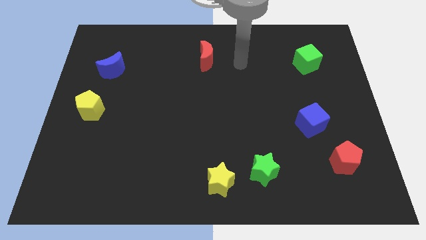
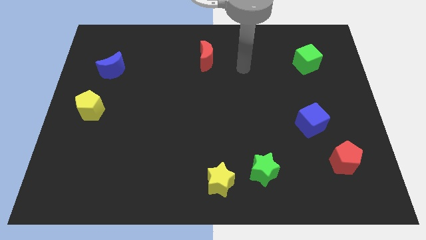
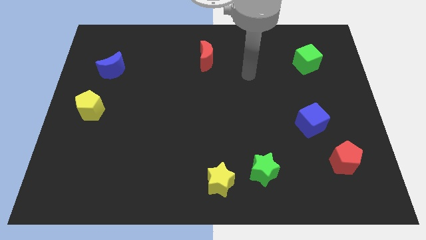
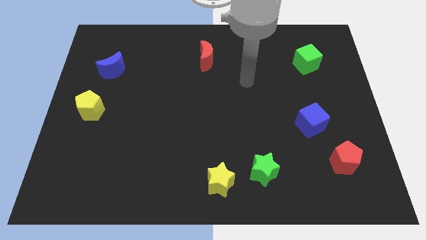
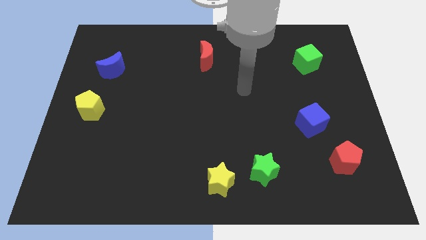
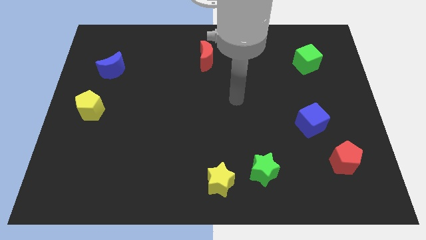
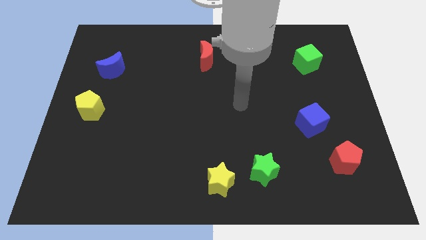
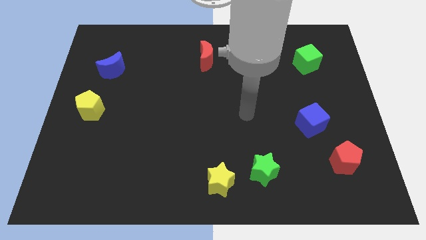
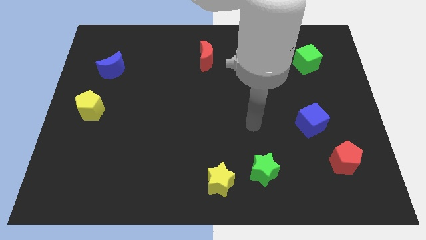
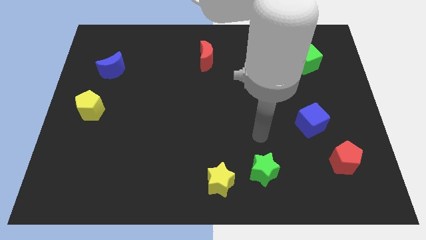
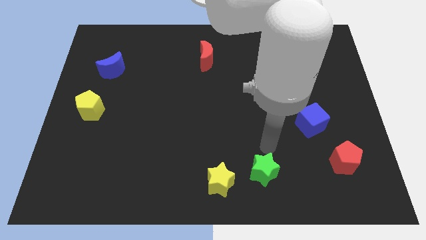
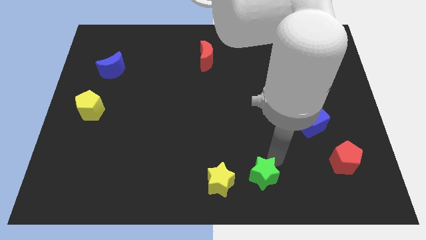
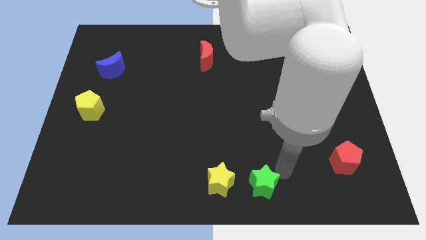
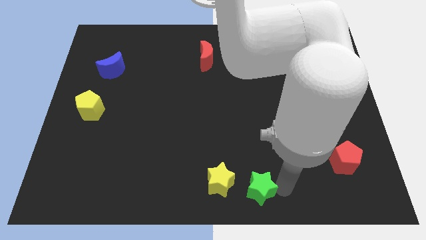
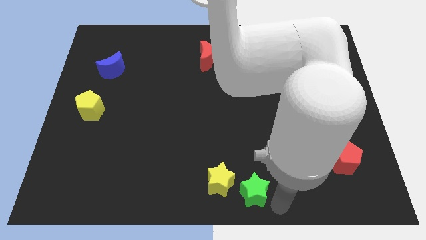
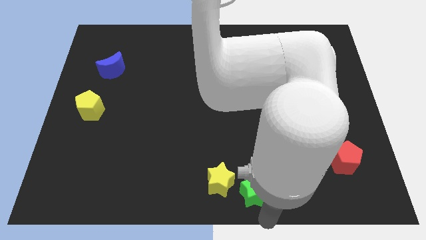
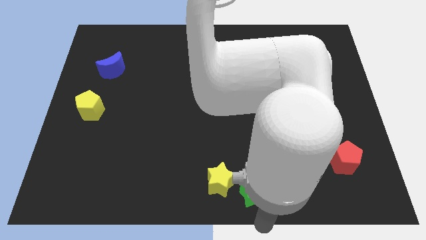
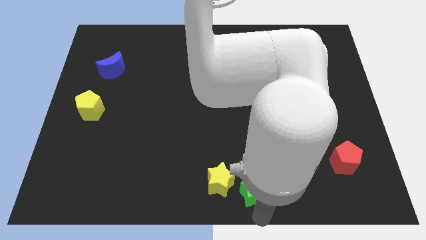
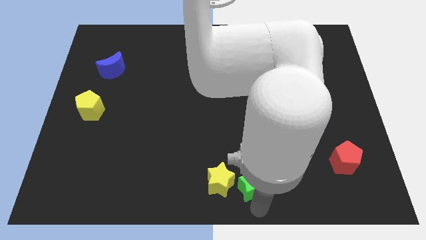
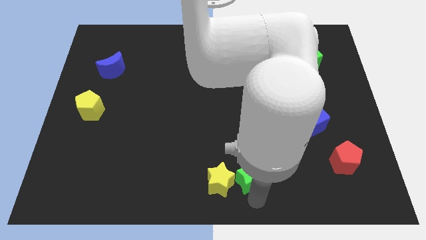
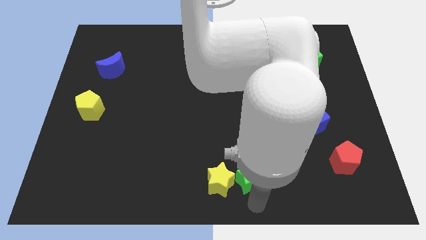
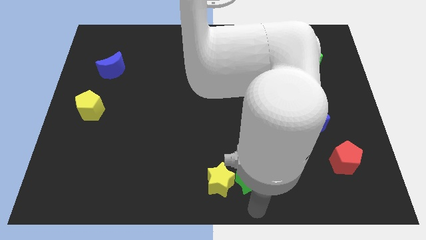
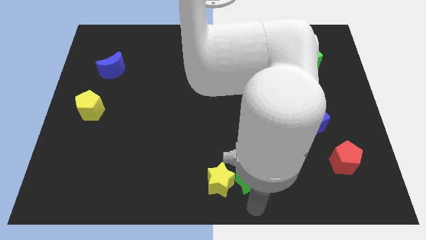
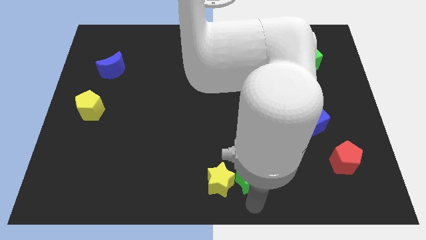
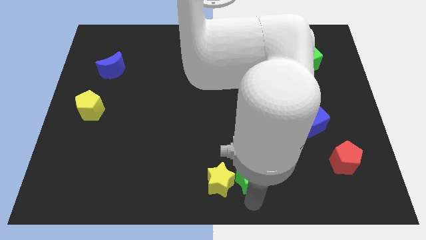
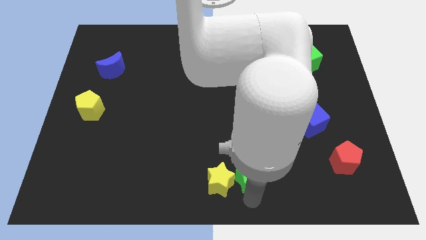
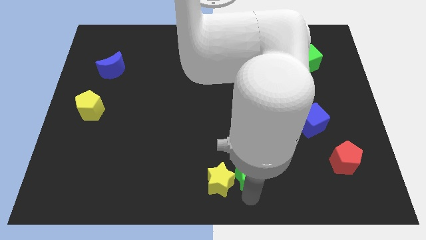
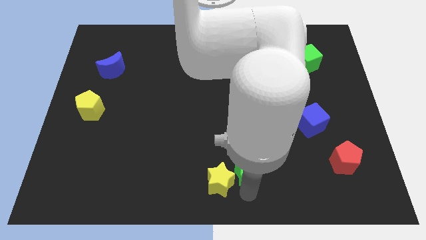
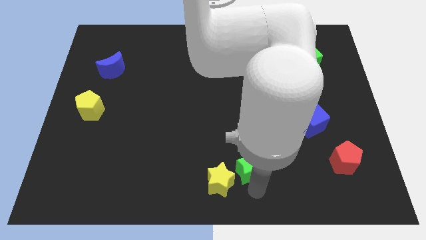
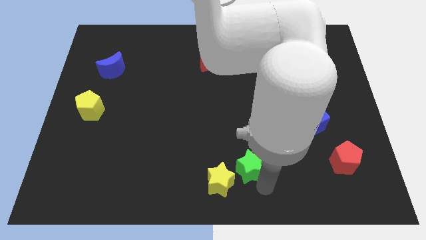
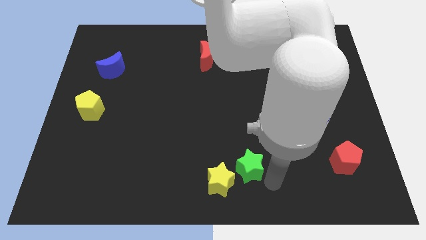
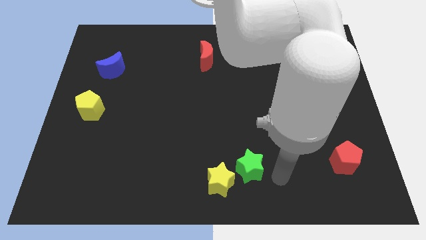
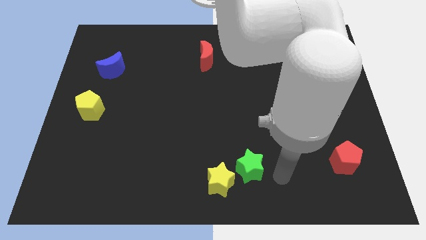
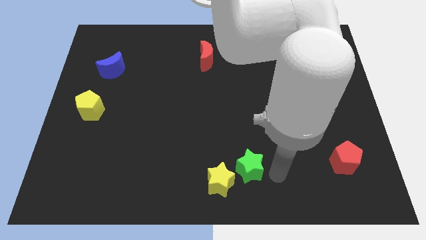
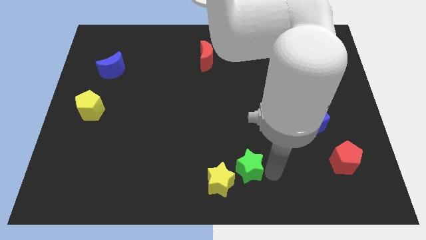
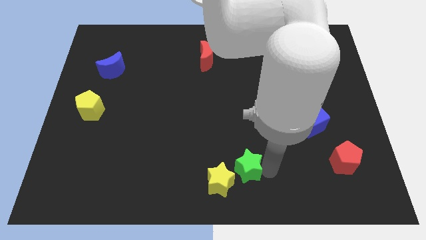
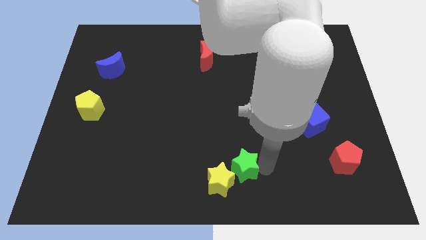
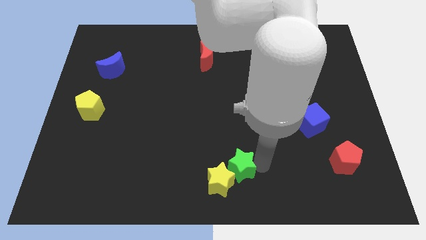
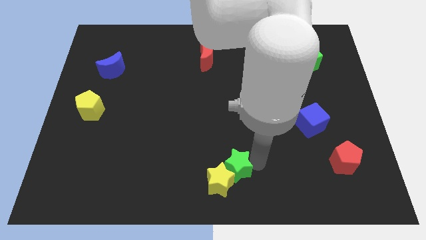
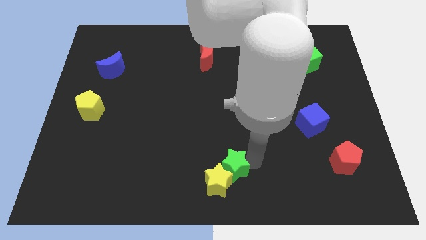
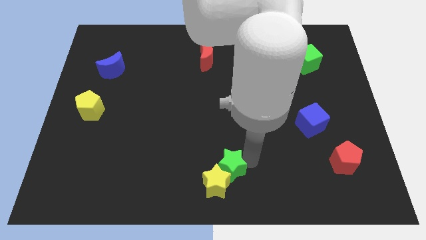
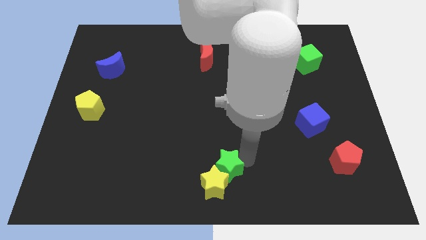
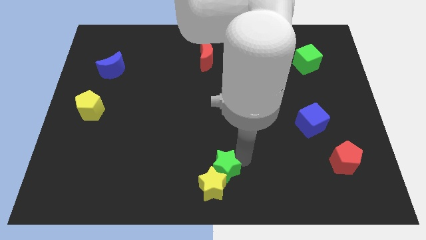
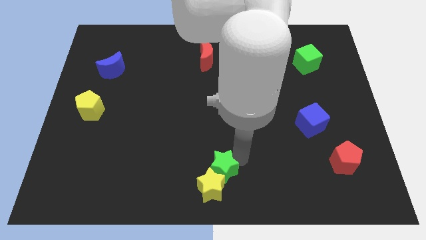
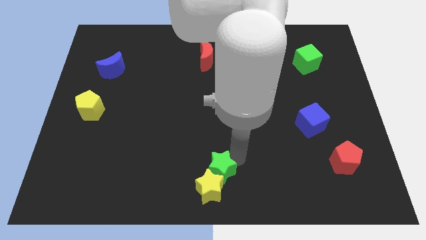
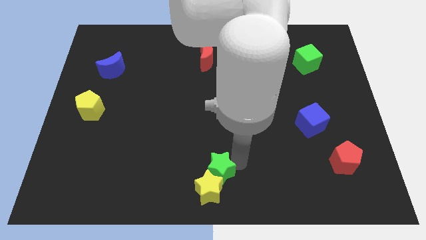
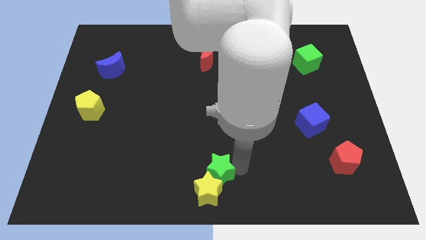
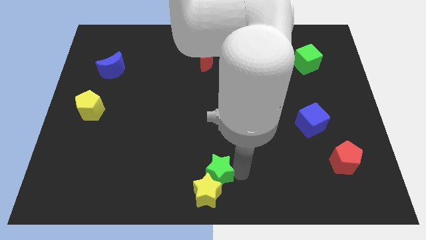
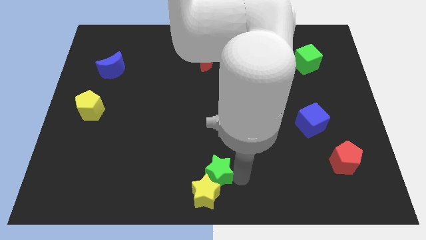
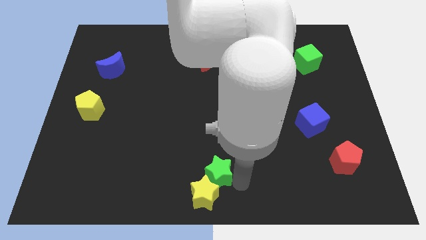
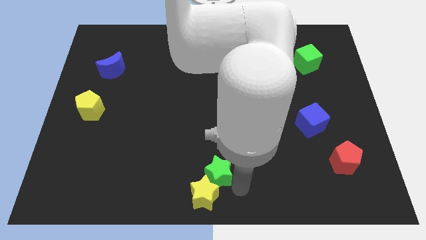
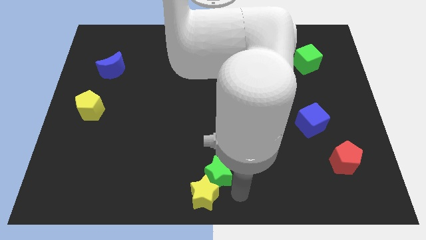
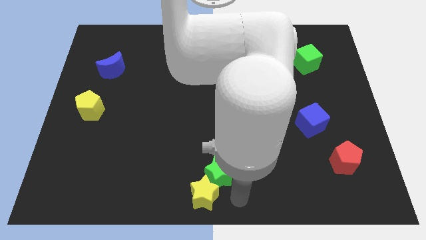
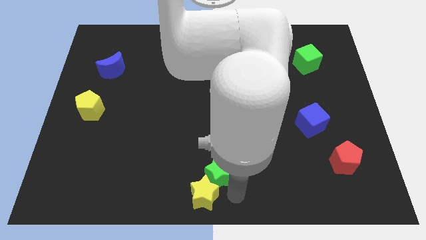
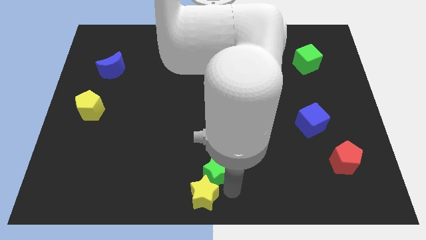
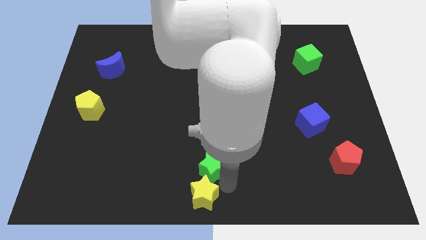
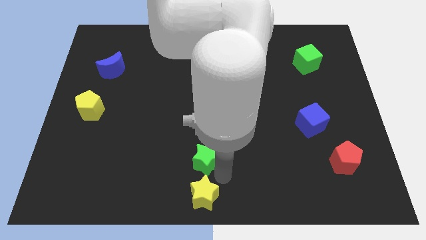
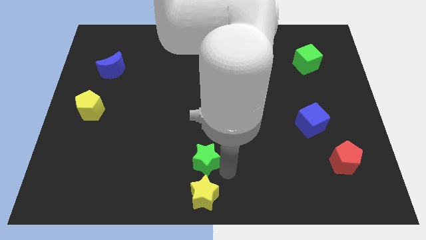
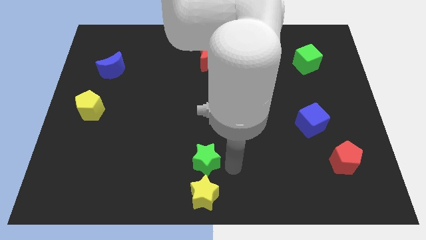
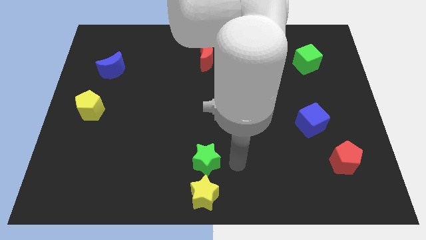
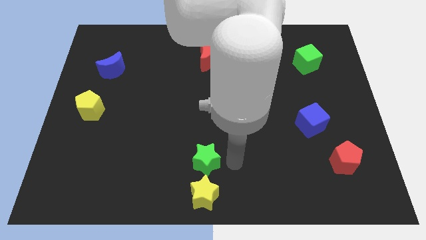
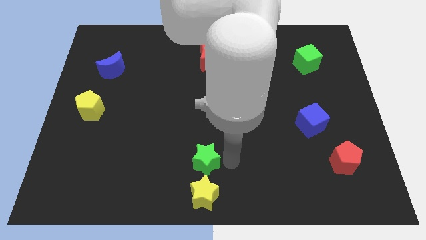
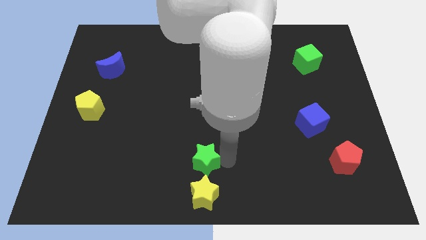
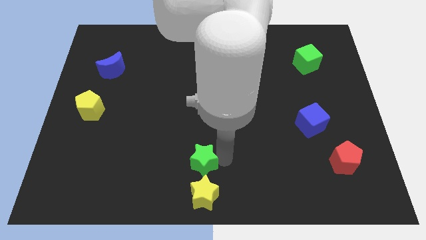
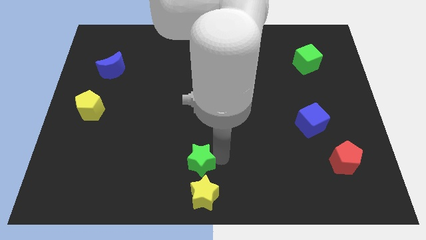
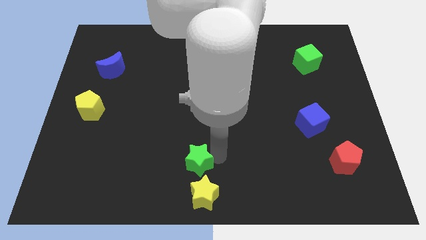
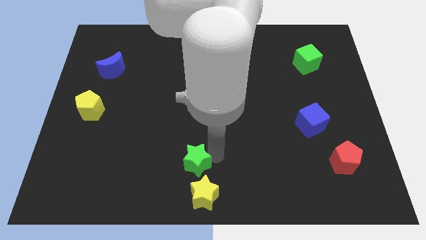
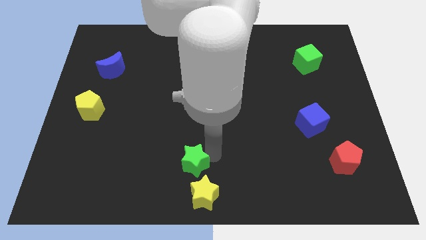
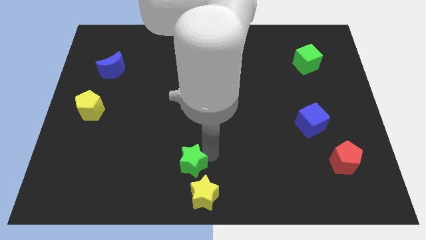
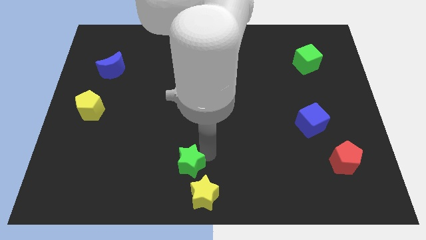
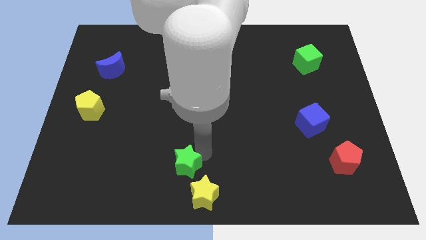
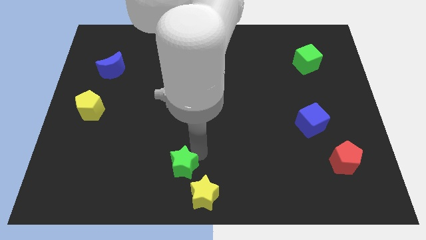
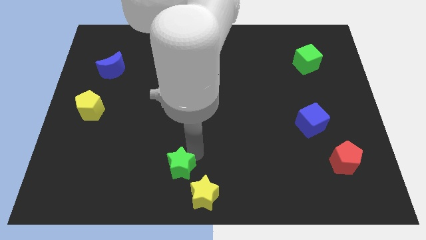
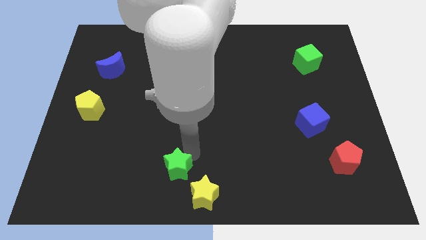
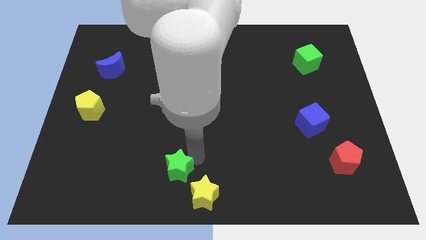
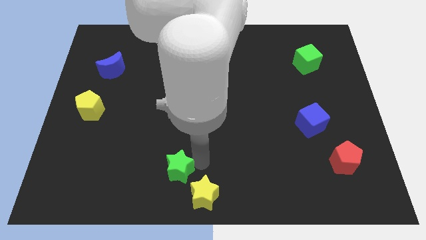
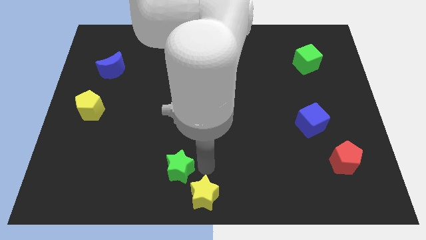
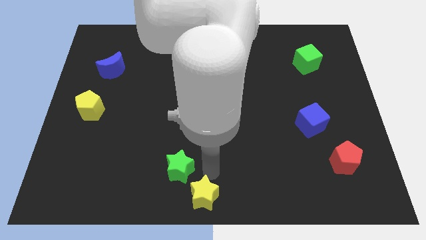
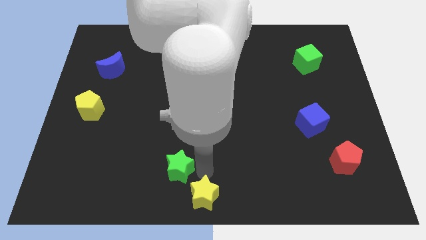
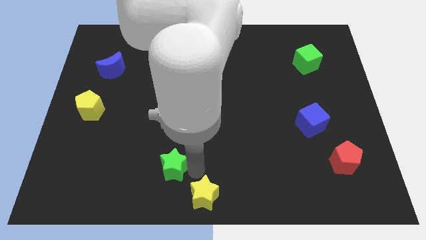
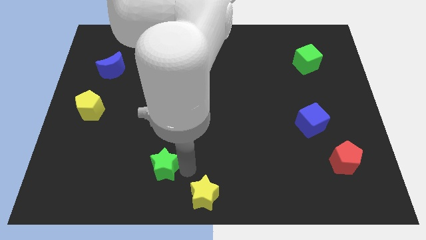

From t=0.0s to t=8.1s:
slide the green star left
